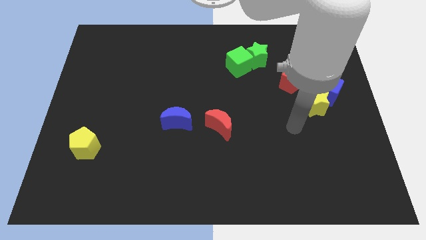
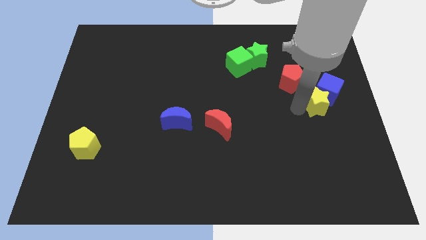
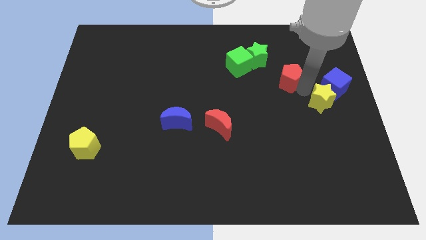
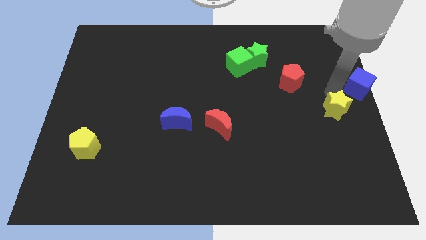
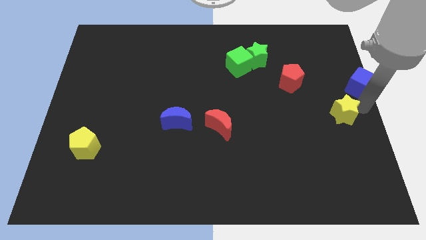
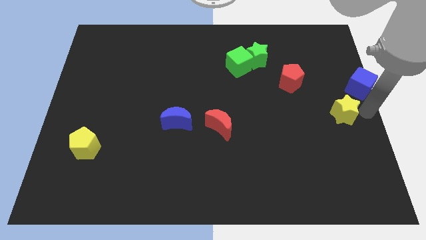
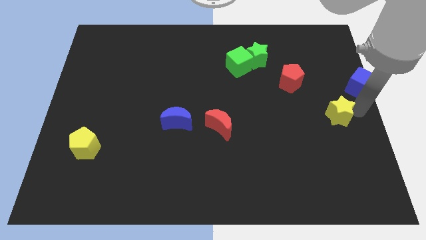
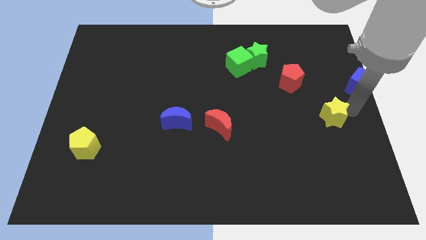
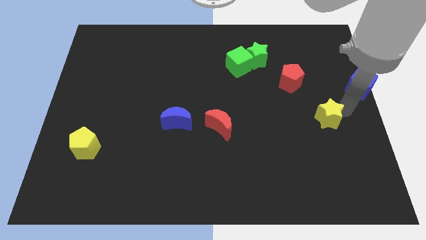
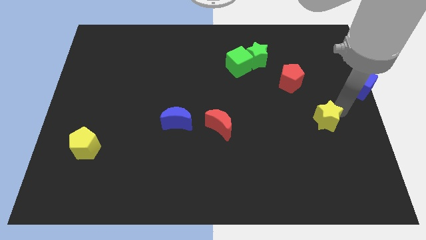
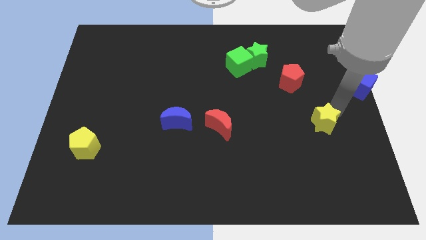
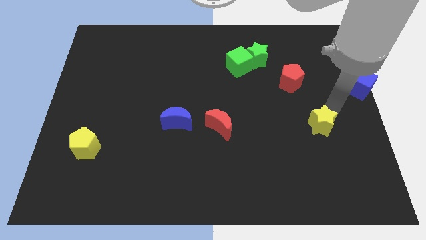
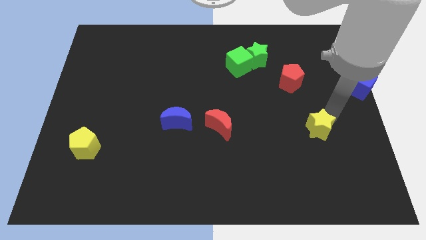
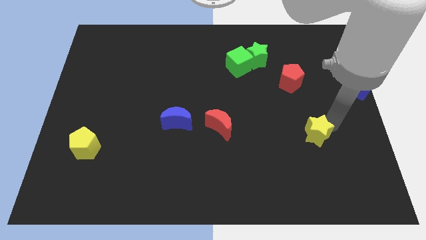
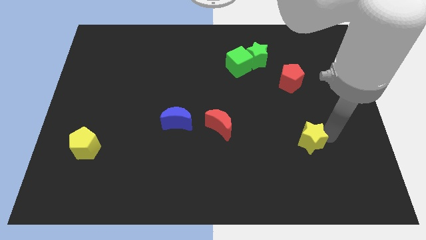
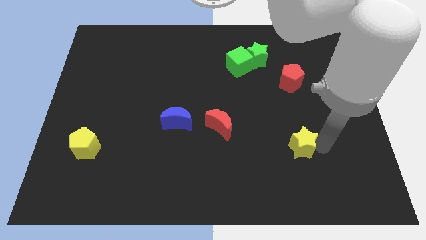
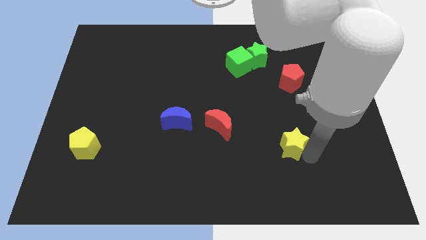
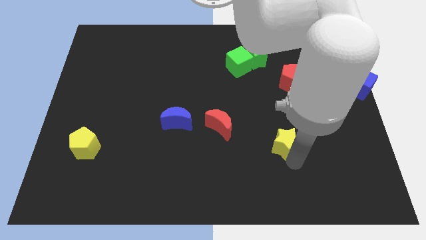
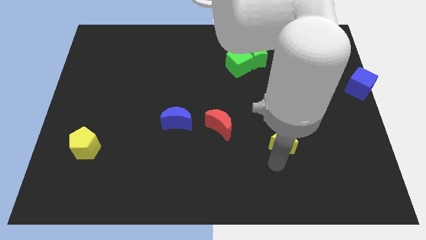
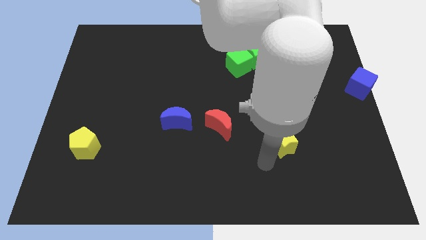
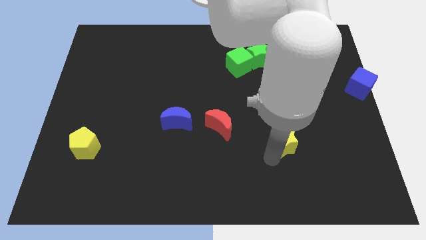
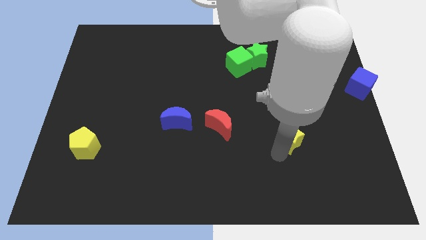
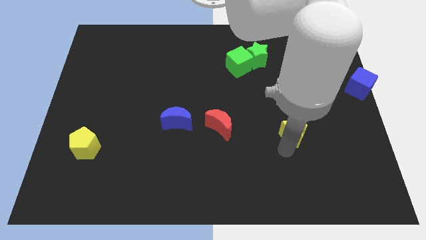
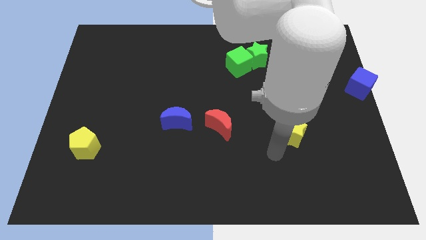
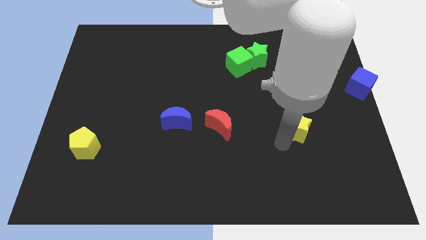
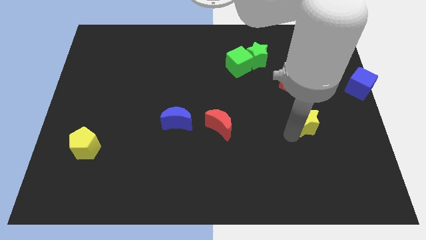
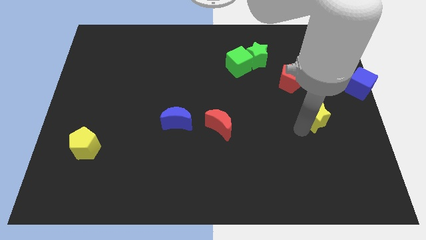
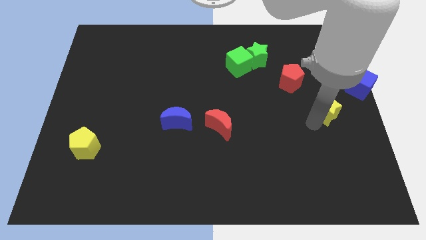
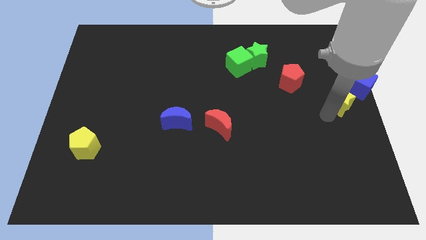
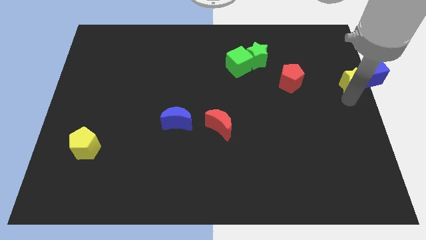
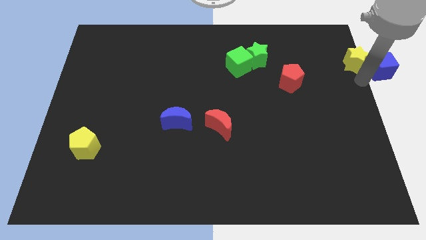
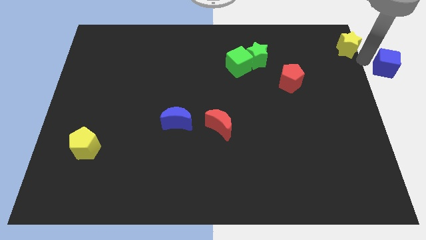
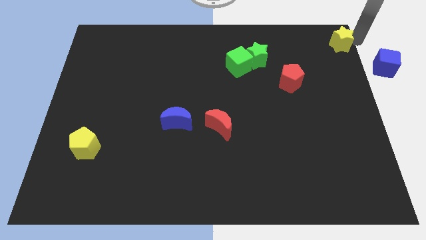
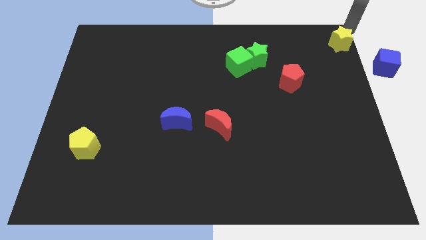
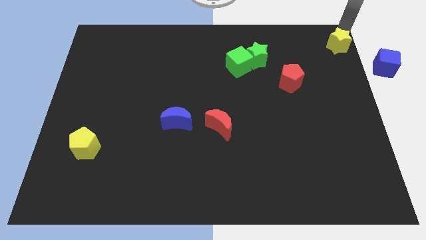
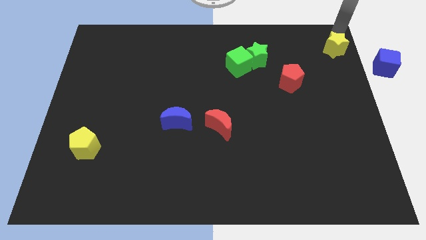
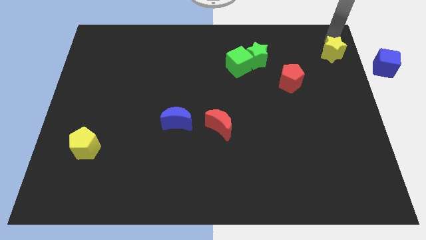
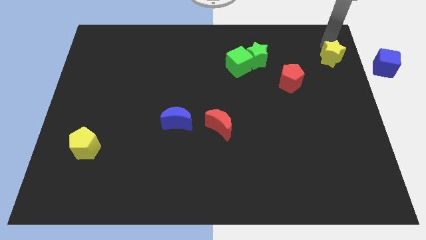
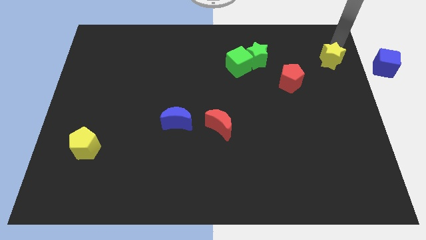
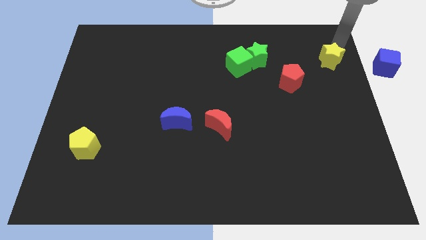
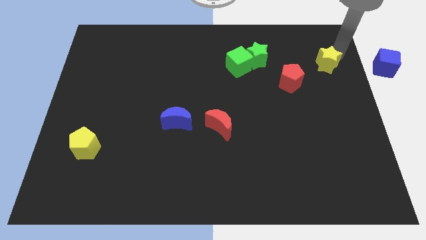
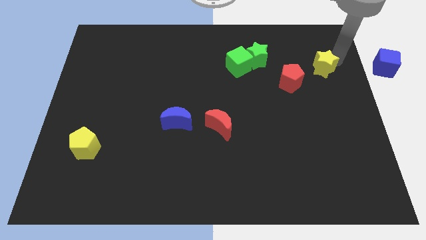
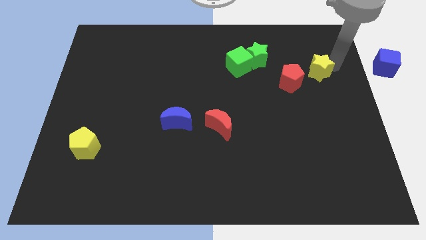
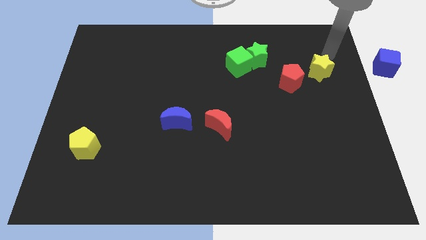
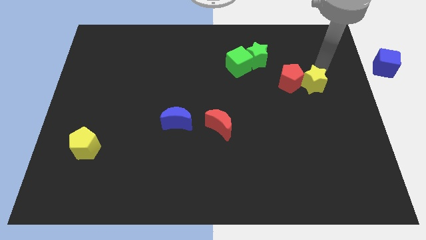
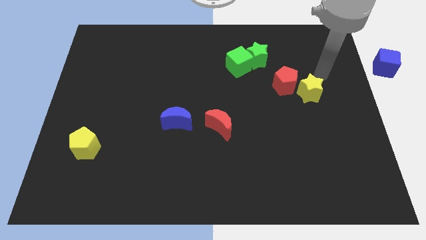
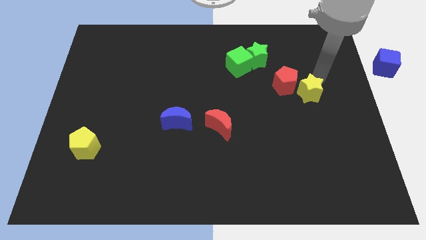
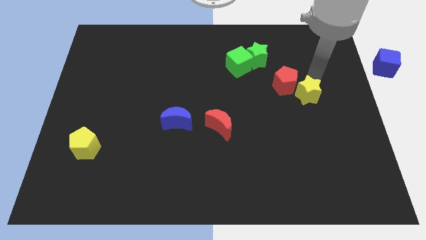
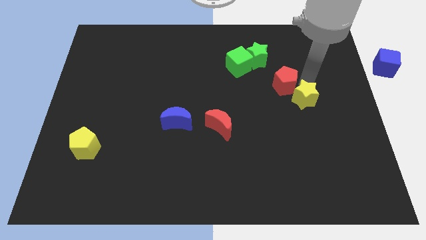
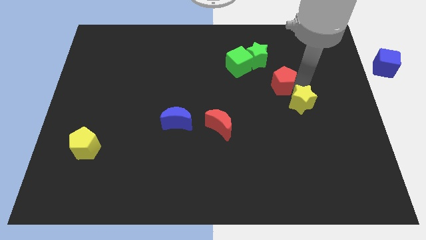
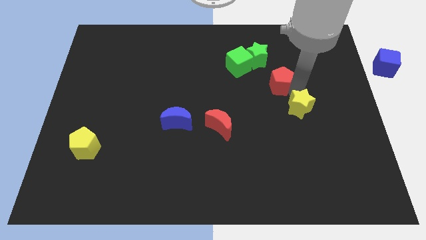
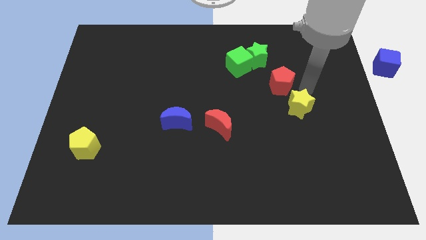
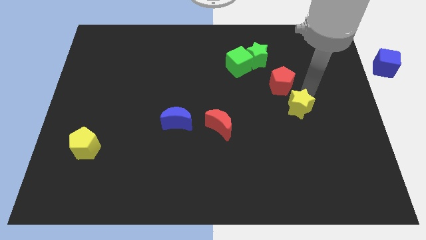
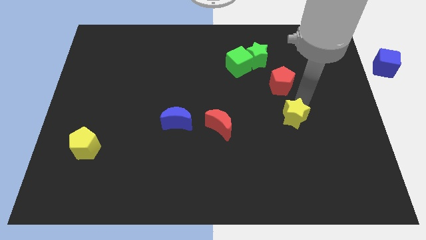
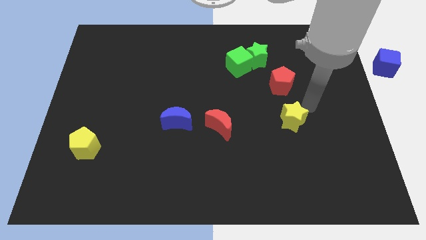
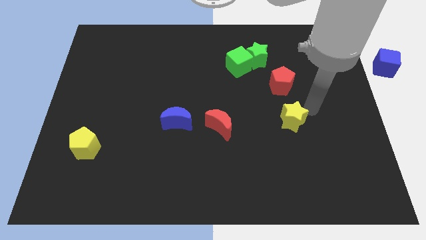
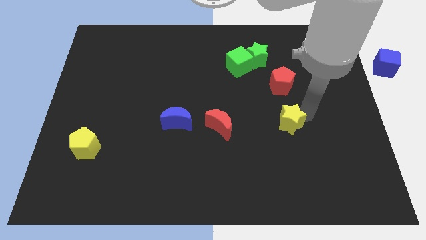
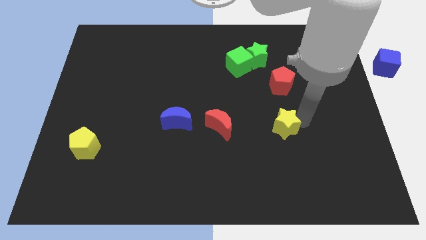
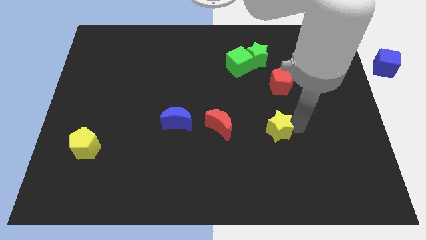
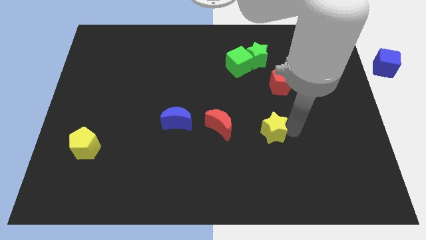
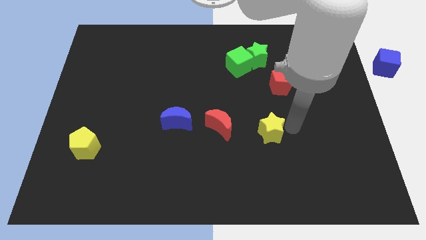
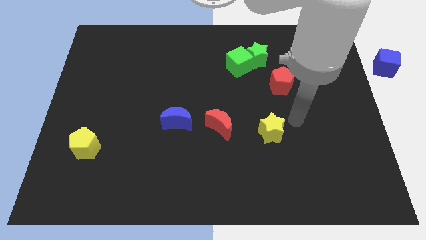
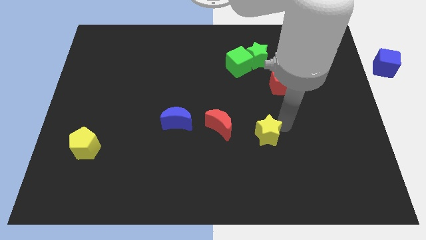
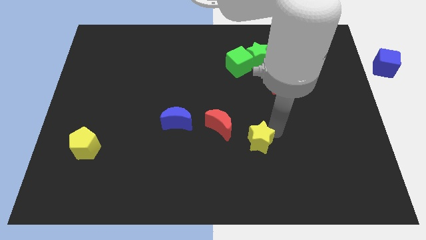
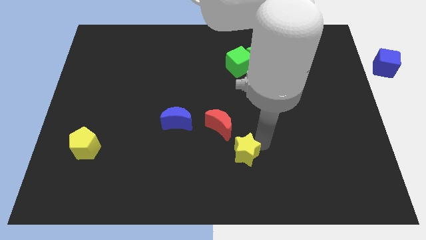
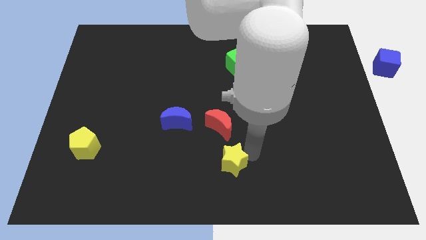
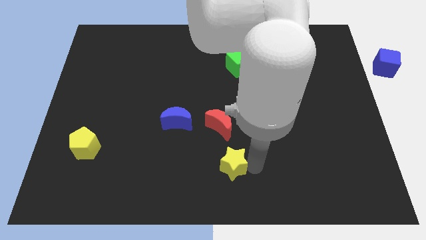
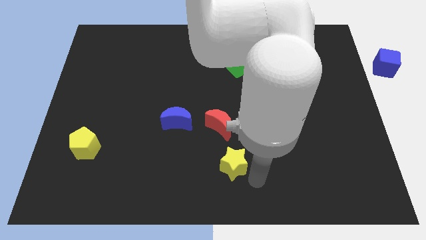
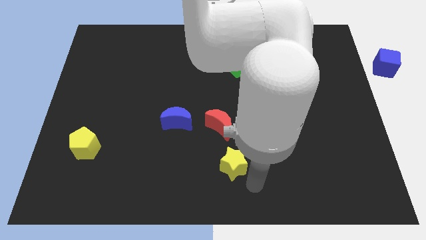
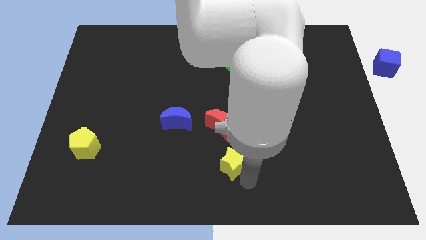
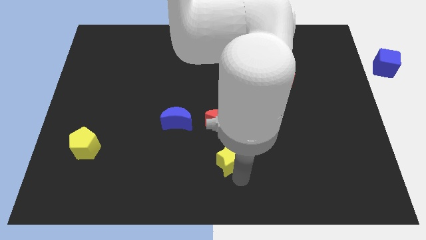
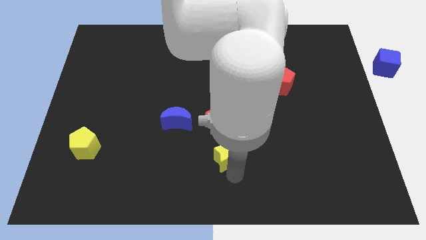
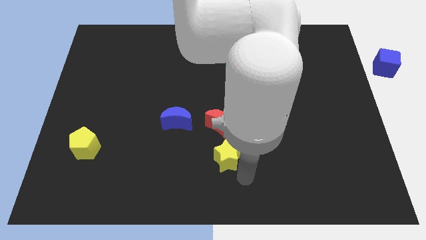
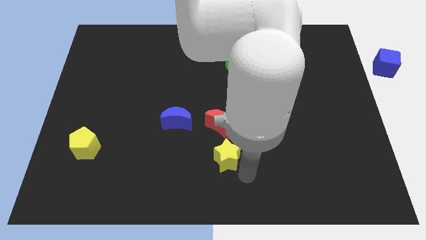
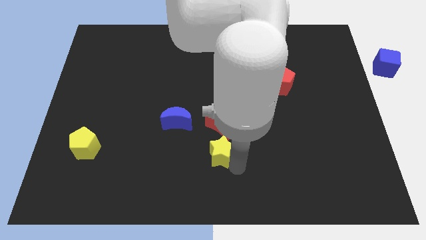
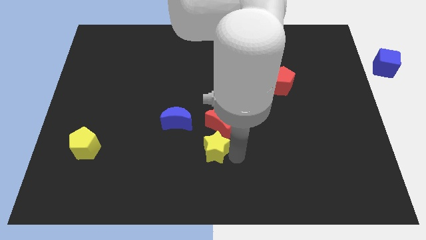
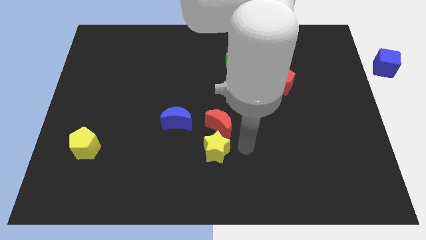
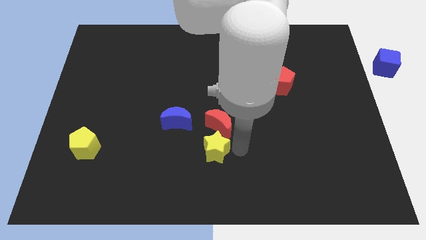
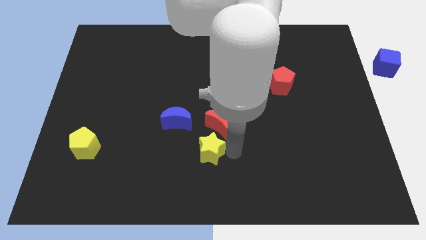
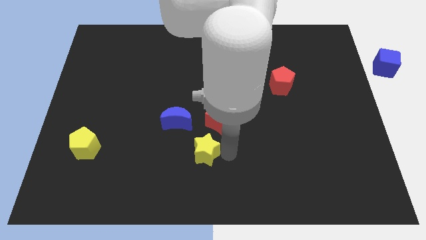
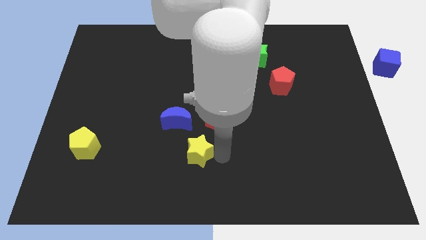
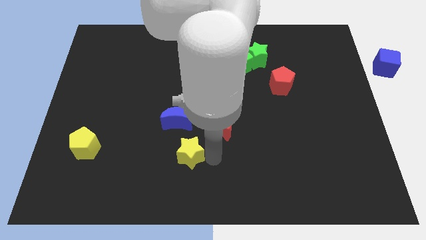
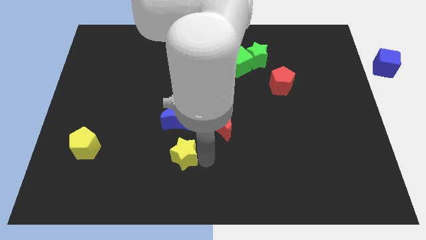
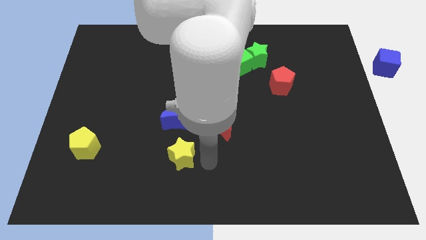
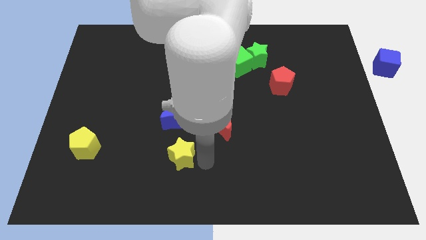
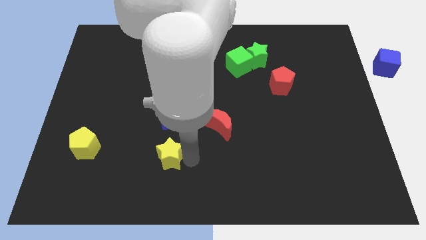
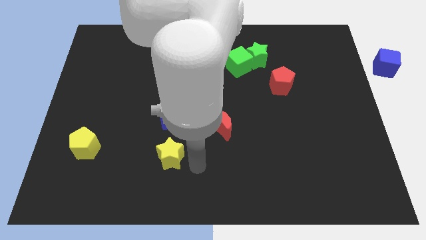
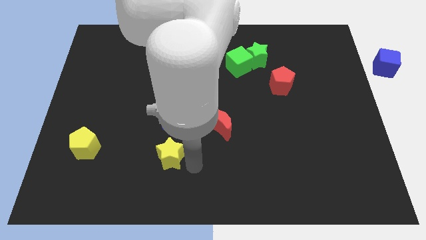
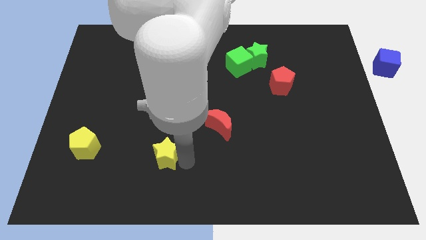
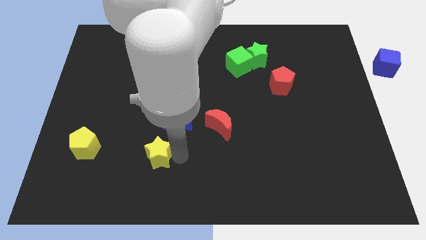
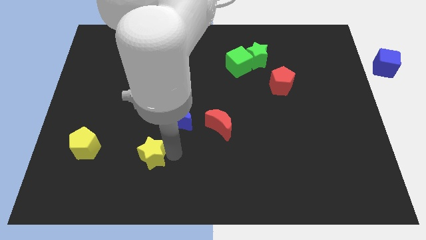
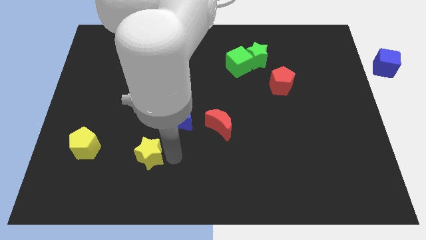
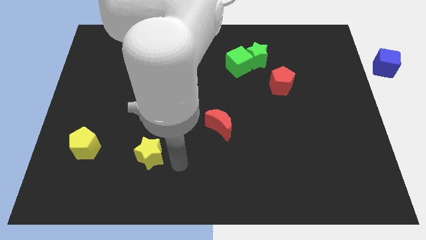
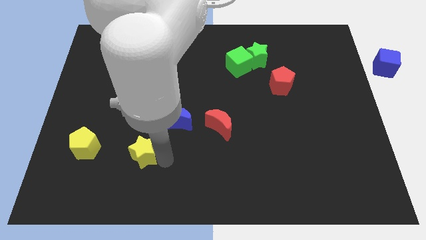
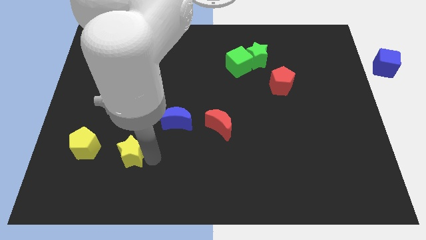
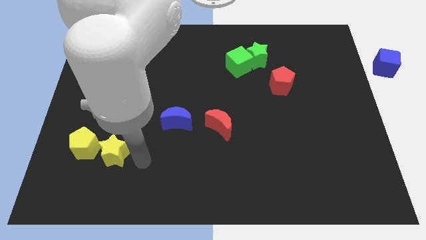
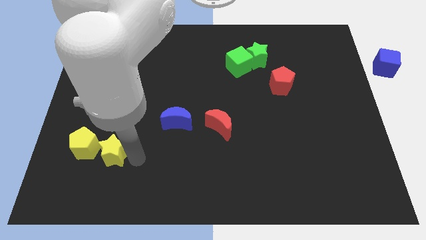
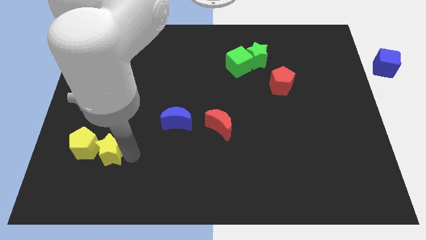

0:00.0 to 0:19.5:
move the yellow star next to the yellow pentagon
